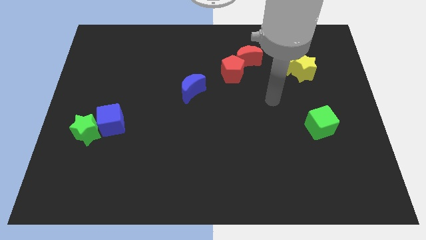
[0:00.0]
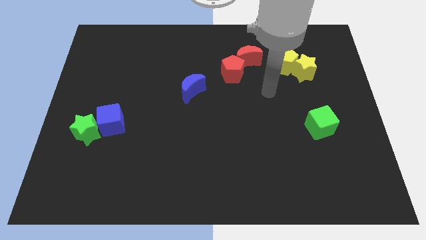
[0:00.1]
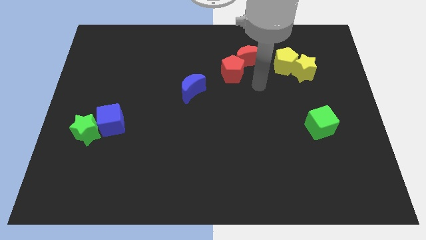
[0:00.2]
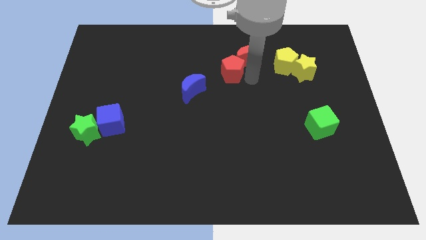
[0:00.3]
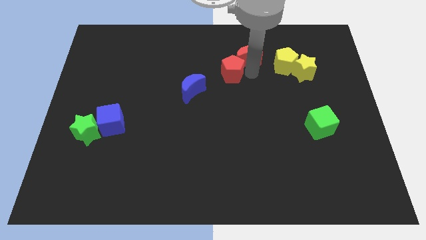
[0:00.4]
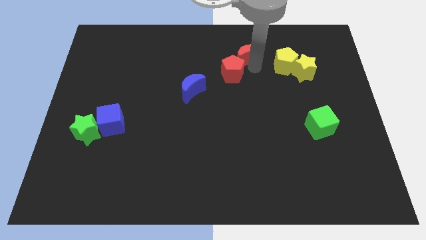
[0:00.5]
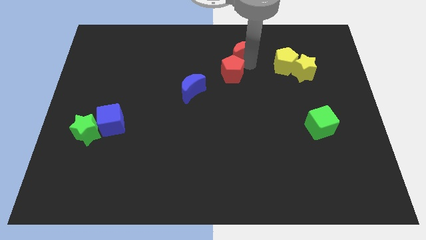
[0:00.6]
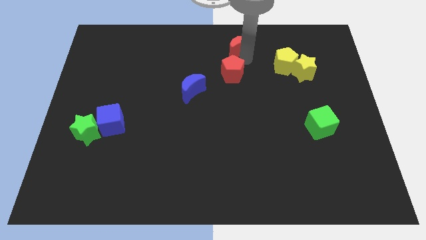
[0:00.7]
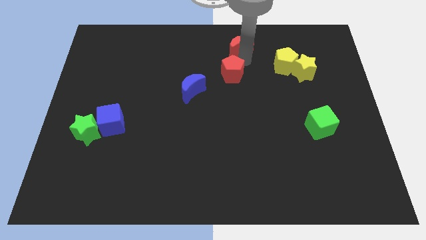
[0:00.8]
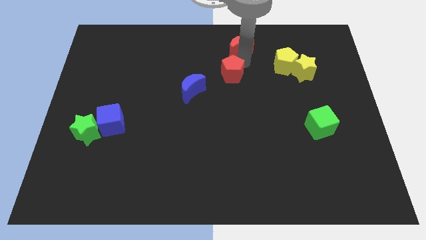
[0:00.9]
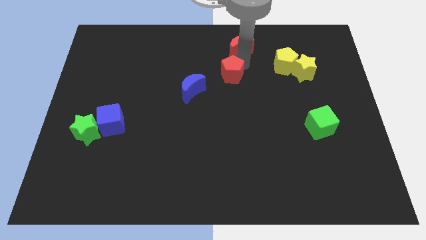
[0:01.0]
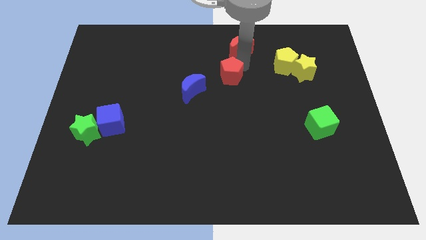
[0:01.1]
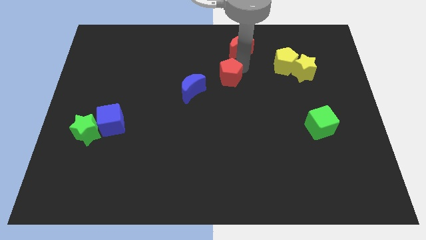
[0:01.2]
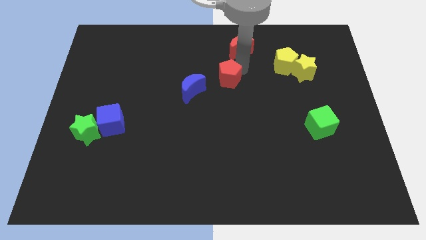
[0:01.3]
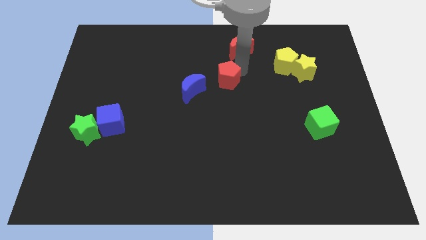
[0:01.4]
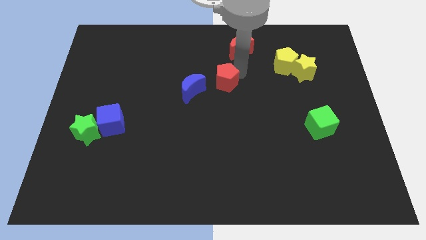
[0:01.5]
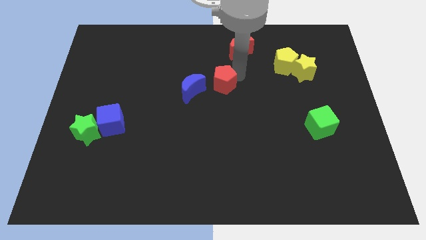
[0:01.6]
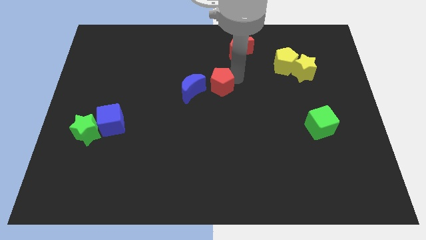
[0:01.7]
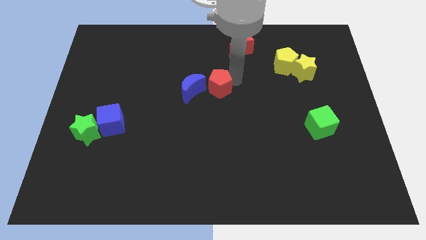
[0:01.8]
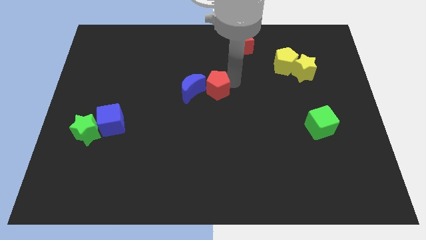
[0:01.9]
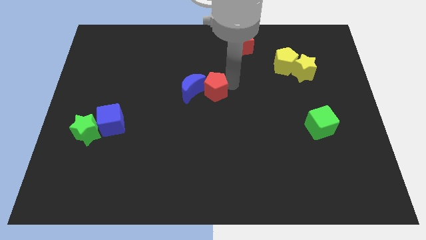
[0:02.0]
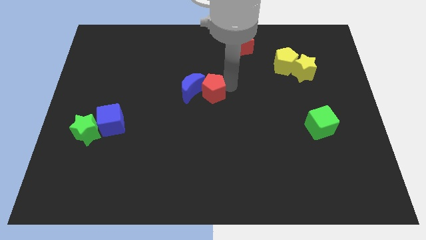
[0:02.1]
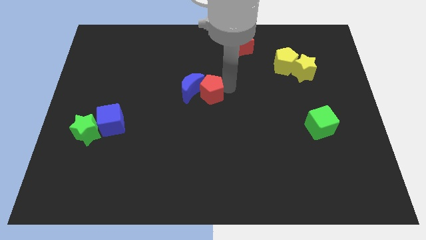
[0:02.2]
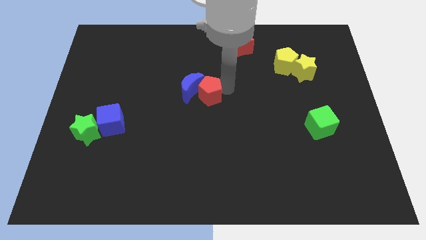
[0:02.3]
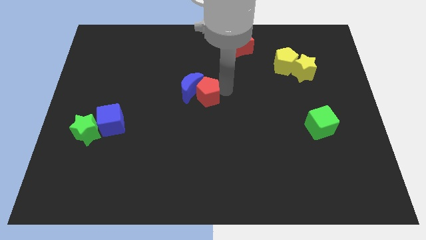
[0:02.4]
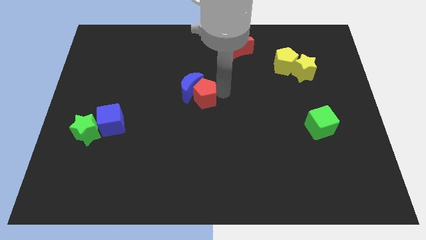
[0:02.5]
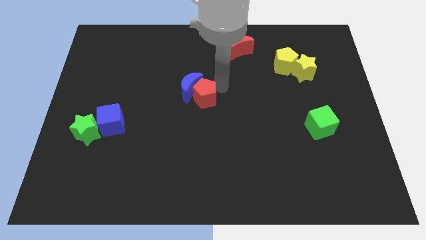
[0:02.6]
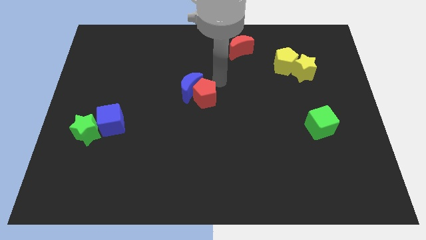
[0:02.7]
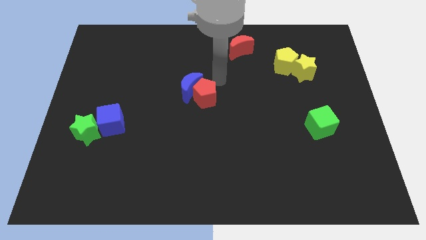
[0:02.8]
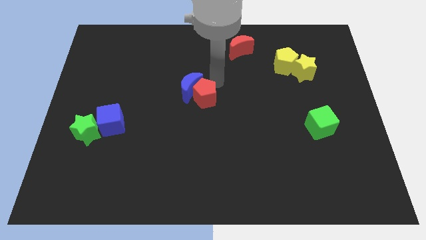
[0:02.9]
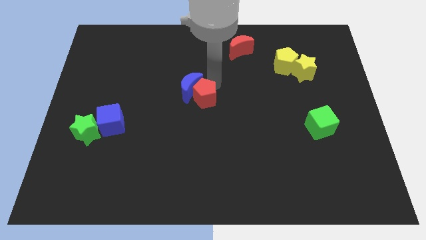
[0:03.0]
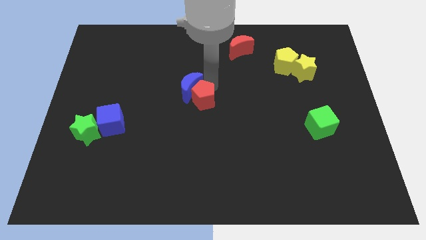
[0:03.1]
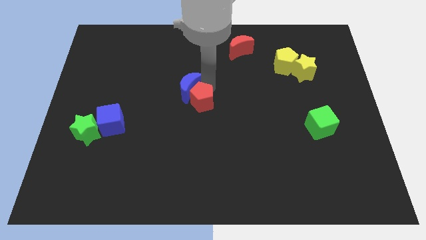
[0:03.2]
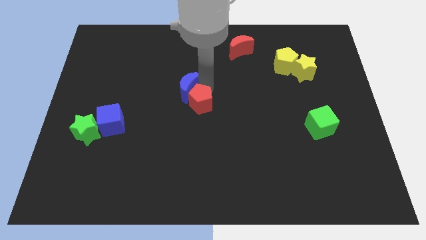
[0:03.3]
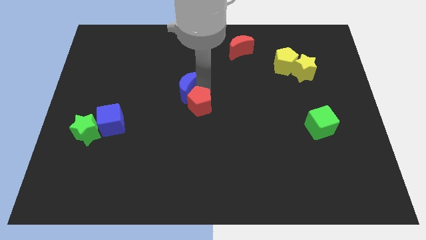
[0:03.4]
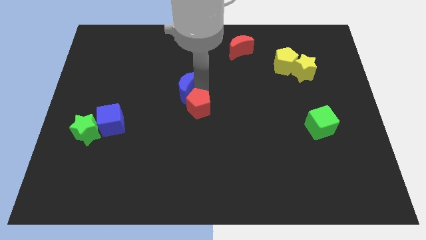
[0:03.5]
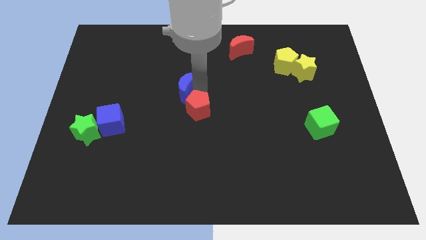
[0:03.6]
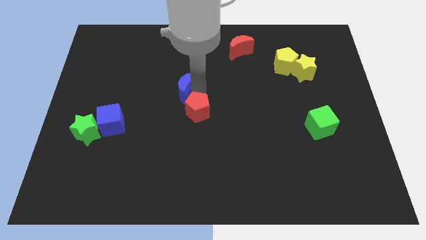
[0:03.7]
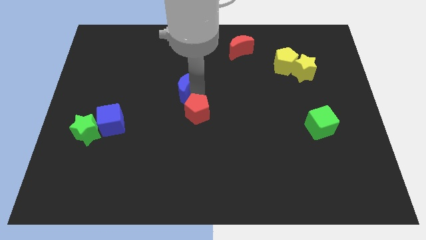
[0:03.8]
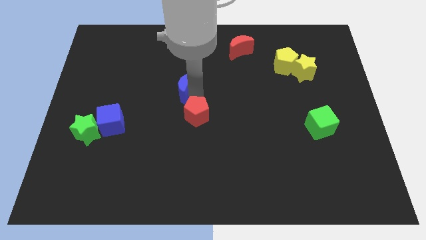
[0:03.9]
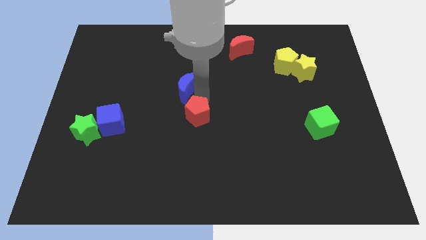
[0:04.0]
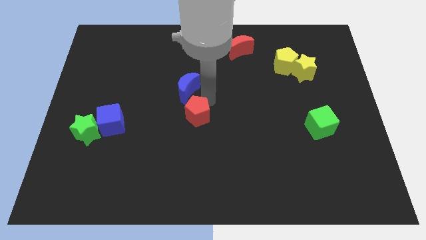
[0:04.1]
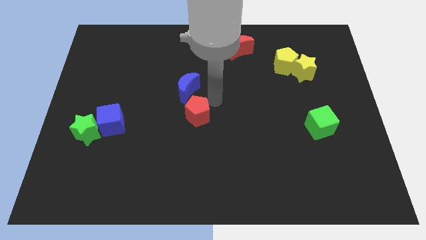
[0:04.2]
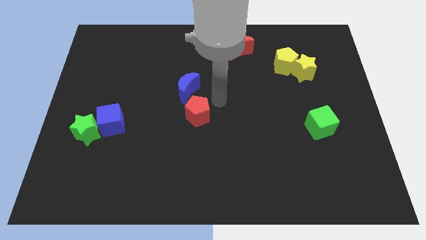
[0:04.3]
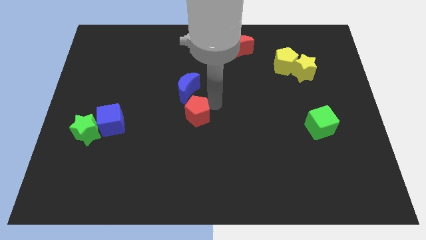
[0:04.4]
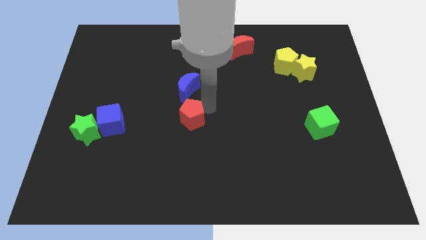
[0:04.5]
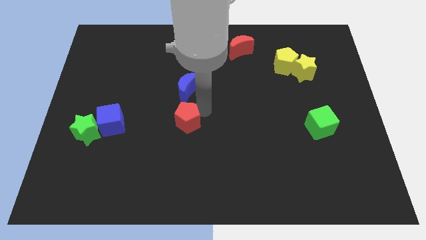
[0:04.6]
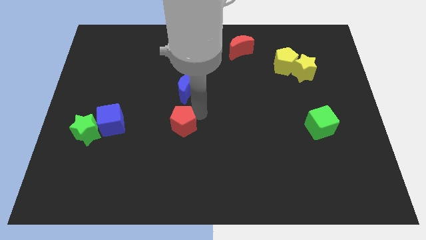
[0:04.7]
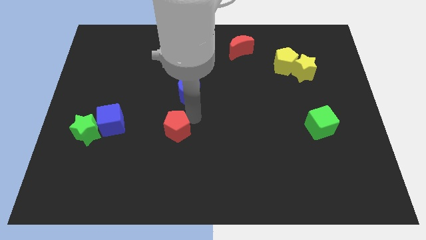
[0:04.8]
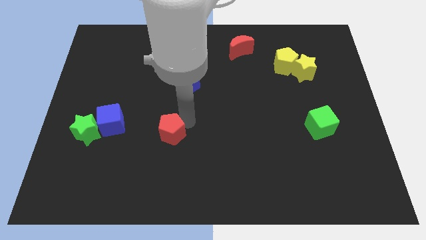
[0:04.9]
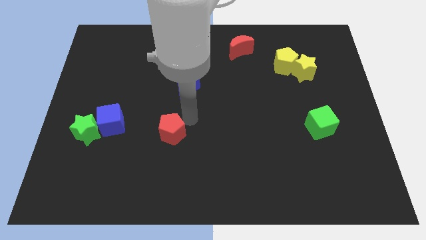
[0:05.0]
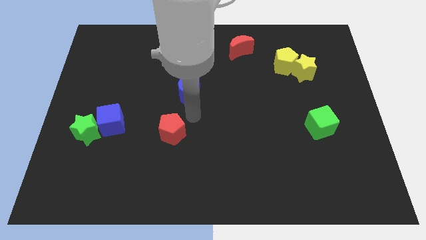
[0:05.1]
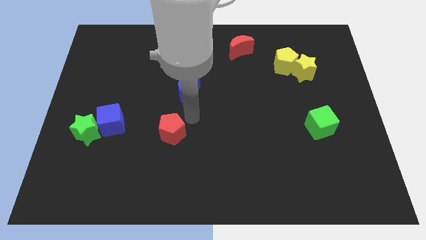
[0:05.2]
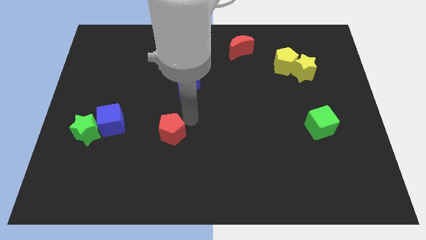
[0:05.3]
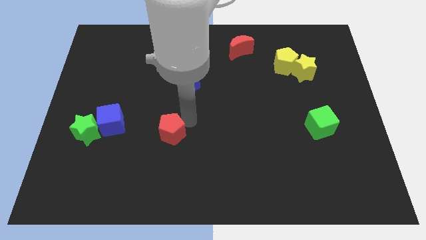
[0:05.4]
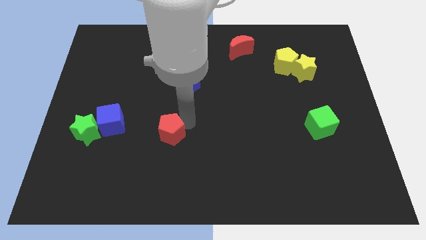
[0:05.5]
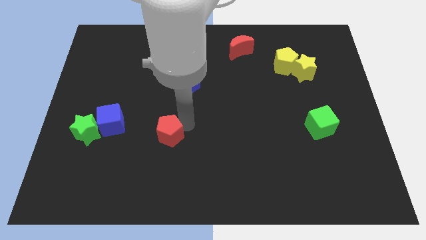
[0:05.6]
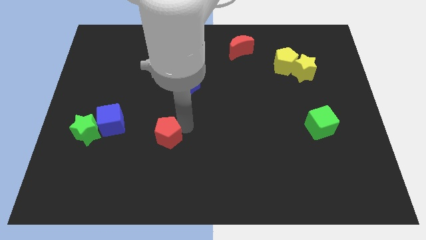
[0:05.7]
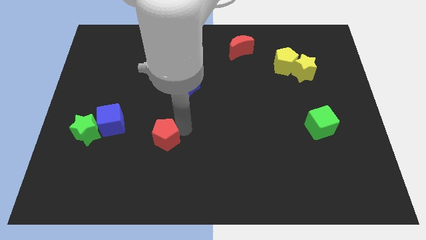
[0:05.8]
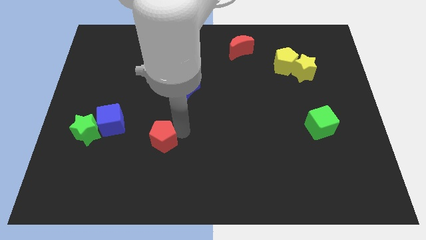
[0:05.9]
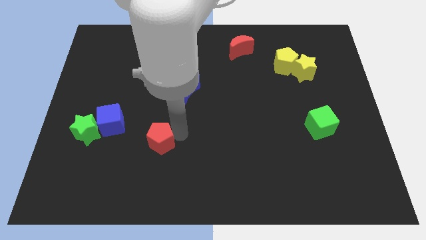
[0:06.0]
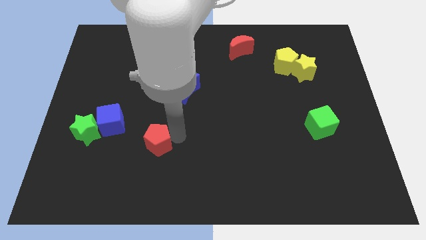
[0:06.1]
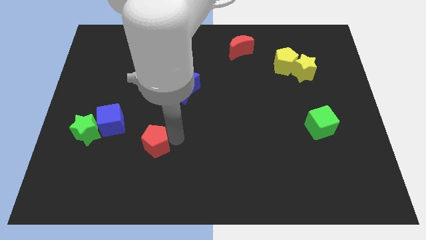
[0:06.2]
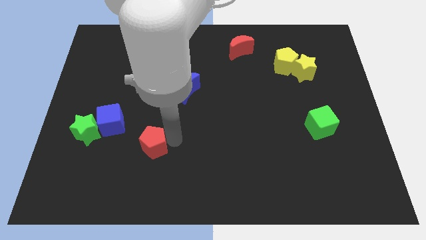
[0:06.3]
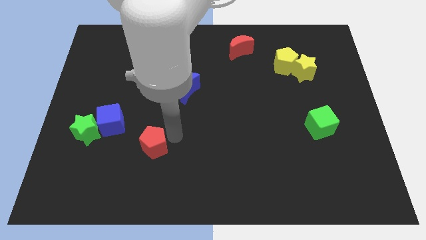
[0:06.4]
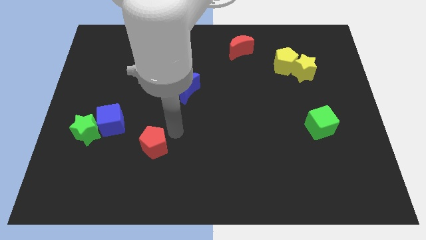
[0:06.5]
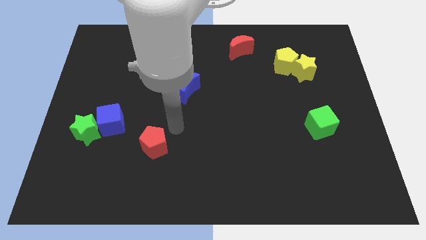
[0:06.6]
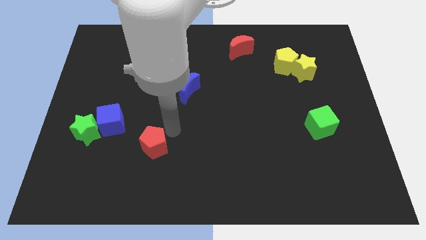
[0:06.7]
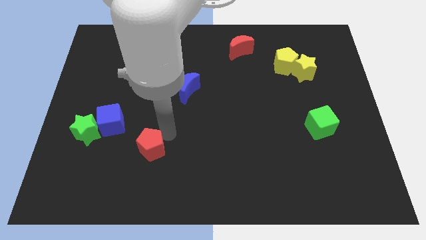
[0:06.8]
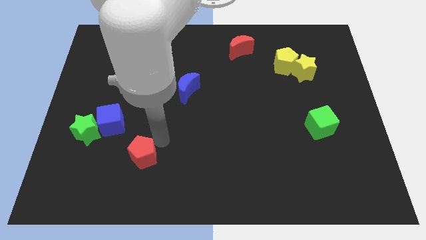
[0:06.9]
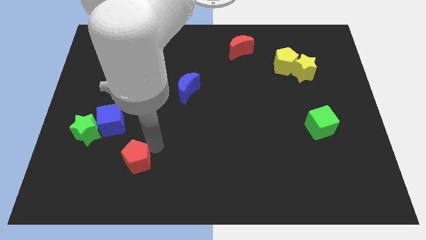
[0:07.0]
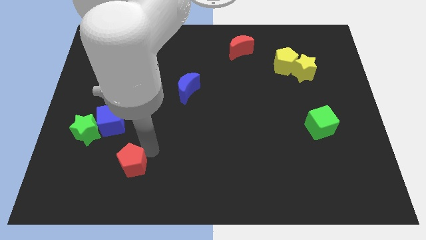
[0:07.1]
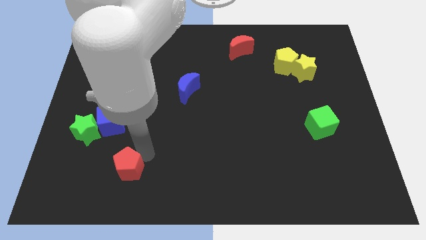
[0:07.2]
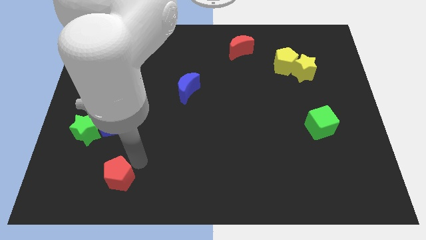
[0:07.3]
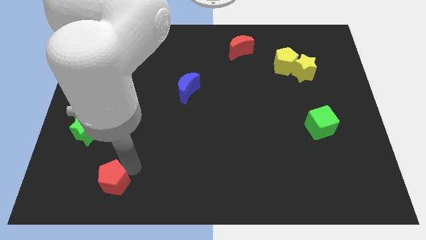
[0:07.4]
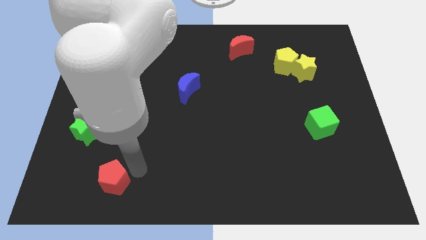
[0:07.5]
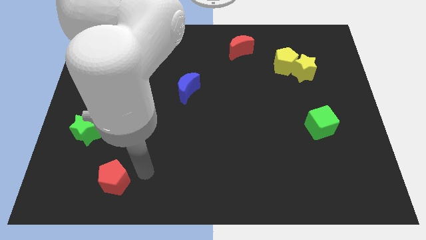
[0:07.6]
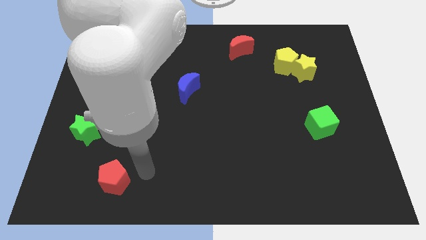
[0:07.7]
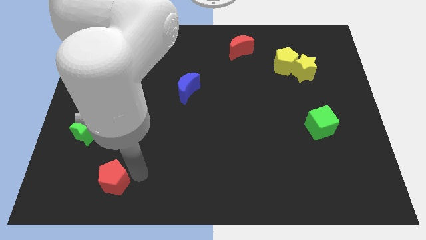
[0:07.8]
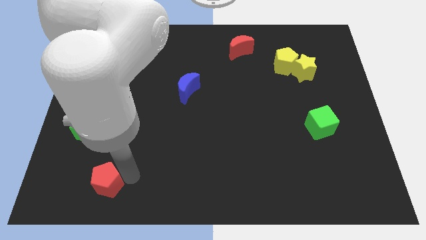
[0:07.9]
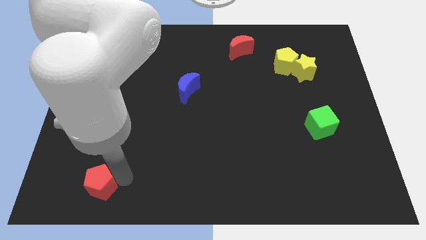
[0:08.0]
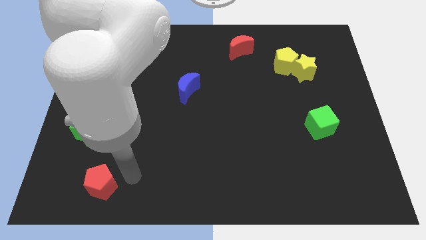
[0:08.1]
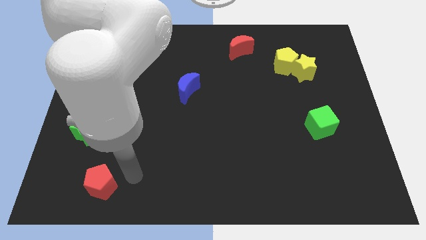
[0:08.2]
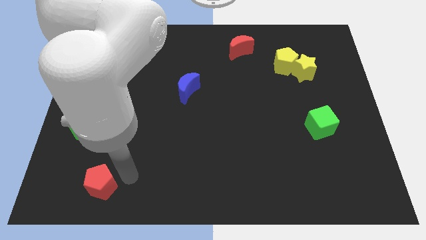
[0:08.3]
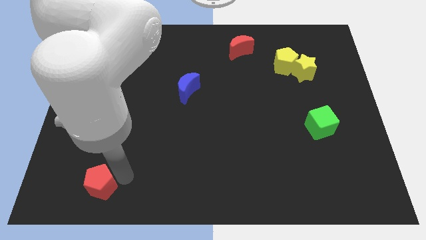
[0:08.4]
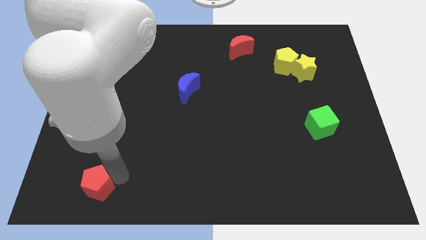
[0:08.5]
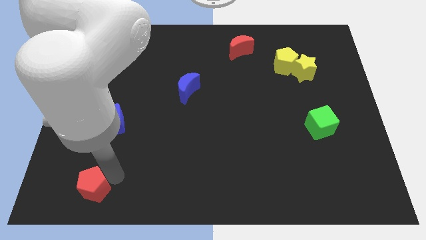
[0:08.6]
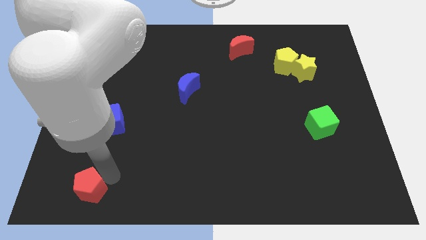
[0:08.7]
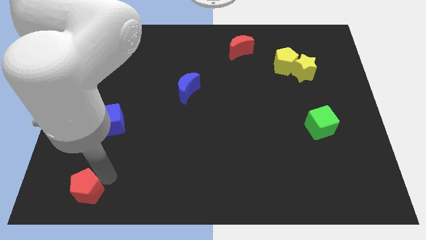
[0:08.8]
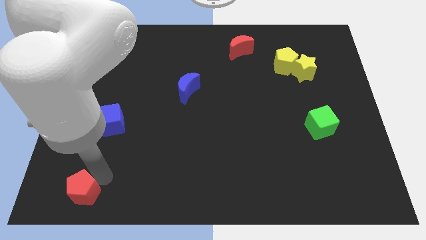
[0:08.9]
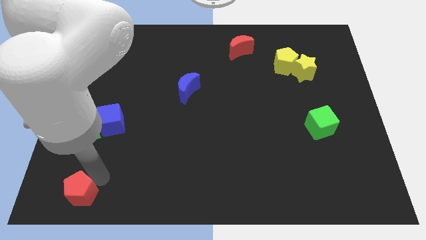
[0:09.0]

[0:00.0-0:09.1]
push the red pentagon to the bottom left corner
